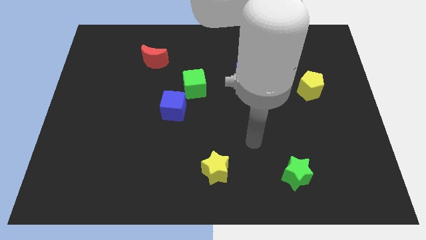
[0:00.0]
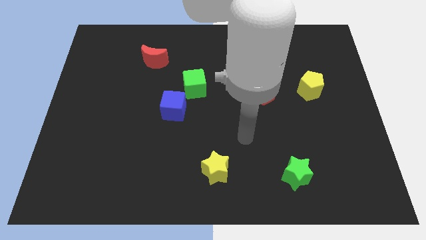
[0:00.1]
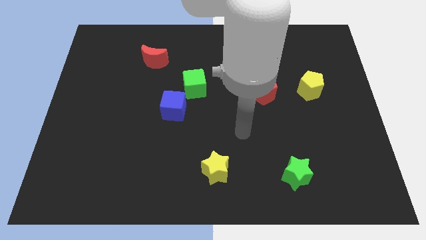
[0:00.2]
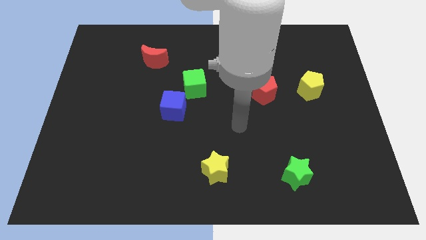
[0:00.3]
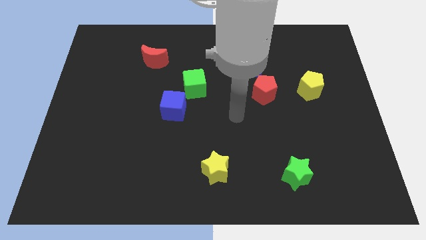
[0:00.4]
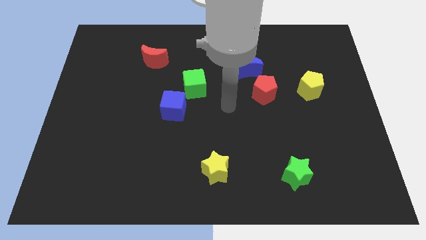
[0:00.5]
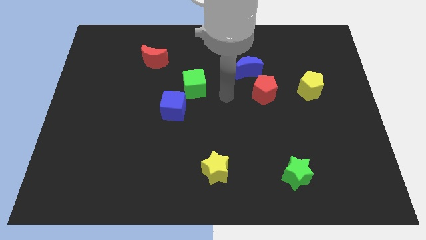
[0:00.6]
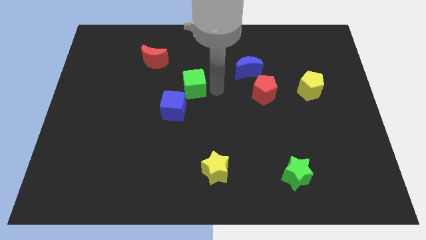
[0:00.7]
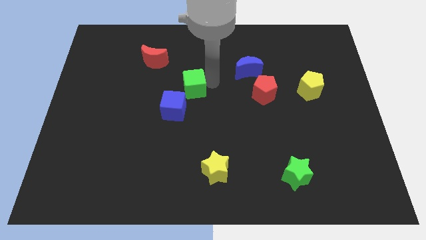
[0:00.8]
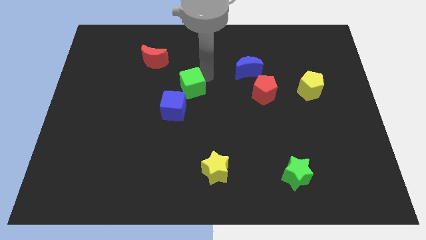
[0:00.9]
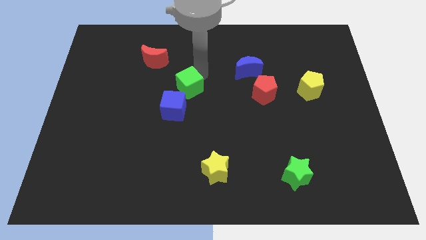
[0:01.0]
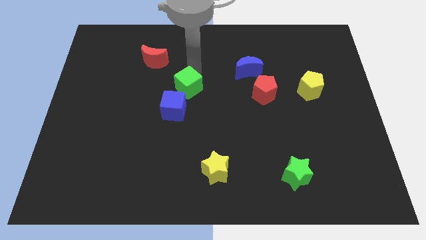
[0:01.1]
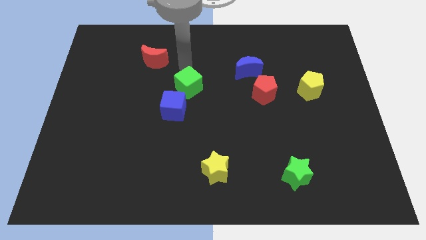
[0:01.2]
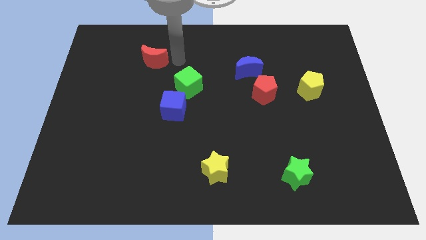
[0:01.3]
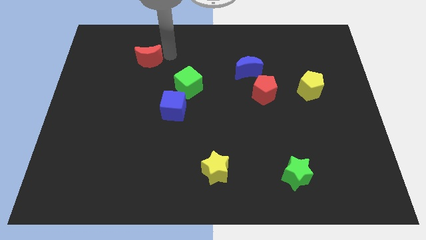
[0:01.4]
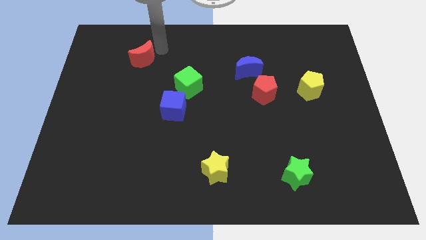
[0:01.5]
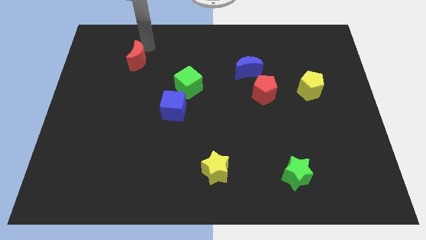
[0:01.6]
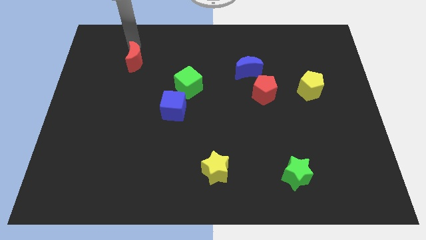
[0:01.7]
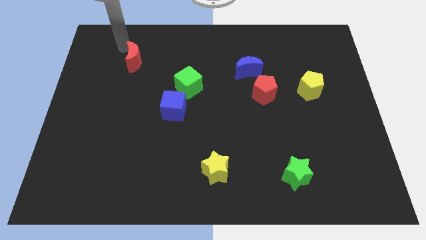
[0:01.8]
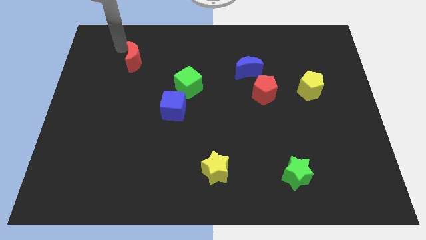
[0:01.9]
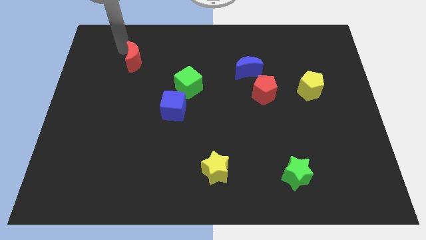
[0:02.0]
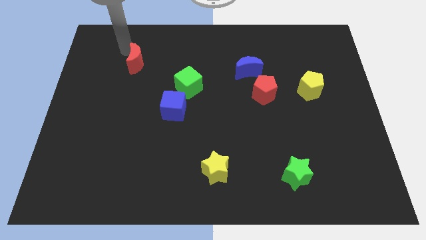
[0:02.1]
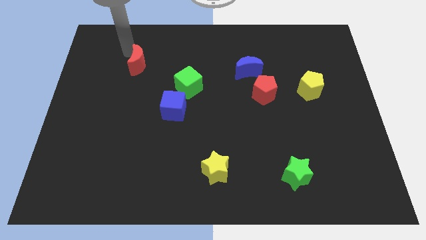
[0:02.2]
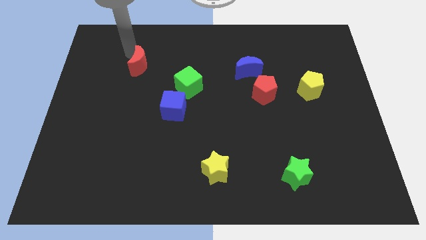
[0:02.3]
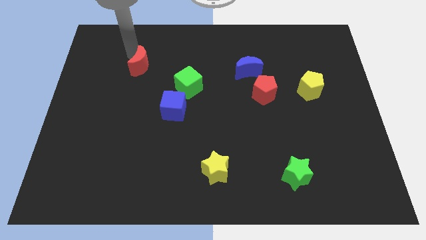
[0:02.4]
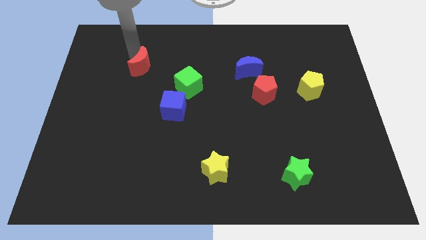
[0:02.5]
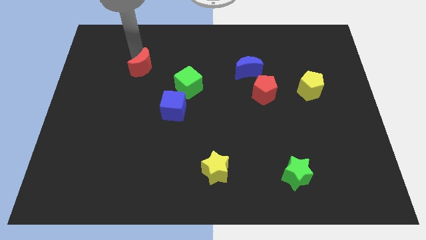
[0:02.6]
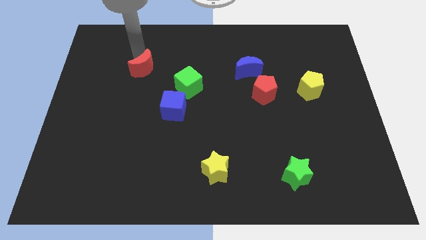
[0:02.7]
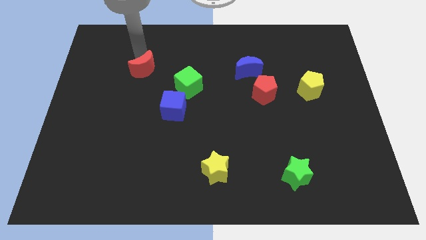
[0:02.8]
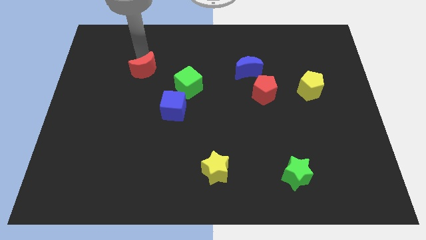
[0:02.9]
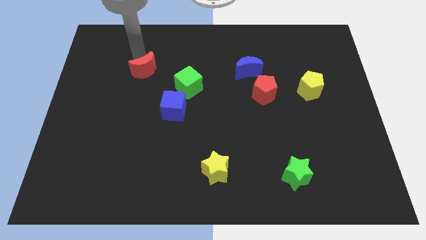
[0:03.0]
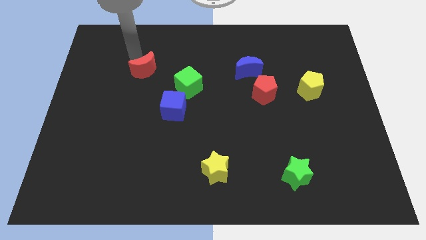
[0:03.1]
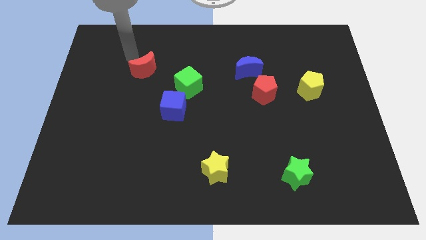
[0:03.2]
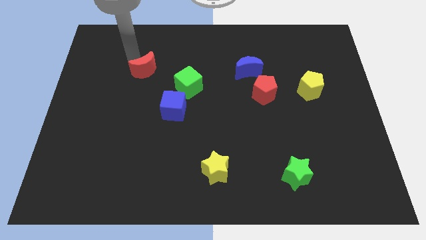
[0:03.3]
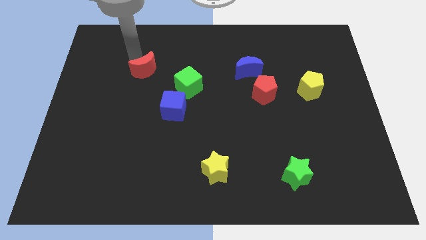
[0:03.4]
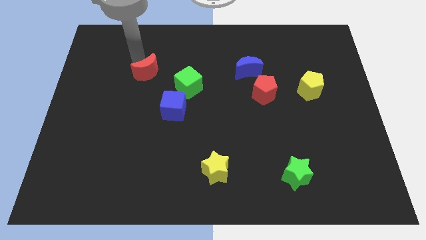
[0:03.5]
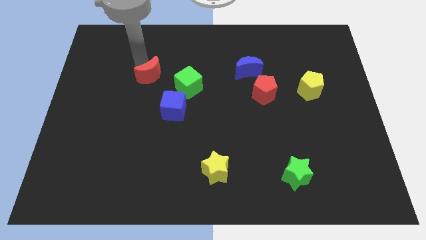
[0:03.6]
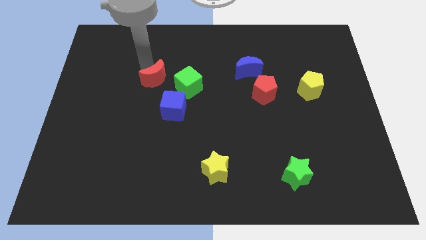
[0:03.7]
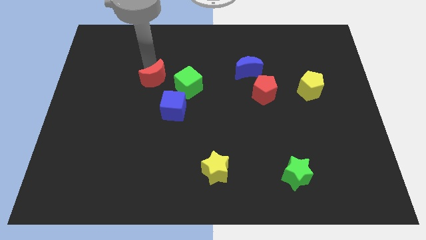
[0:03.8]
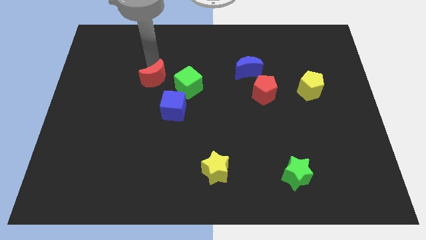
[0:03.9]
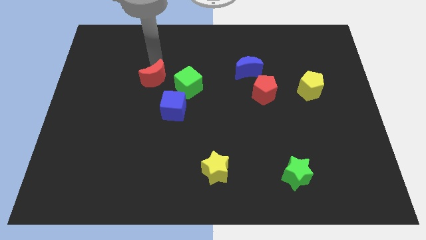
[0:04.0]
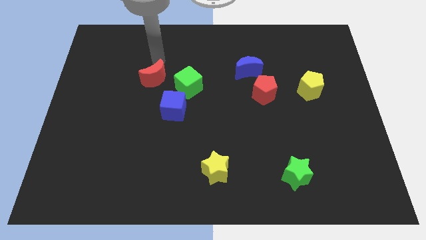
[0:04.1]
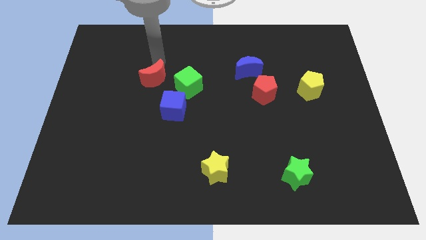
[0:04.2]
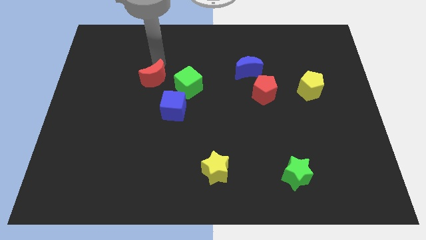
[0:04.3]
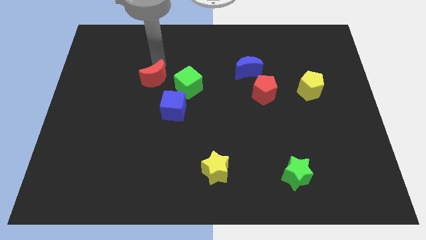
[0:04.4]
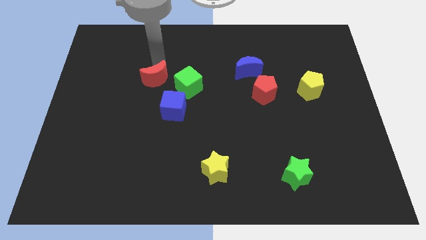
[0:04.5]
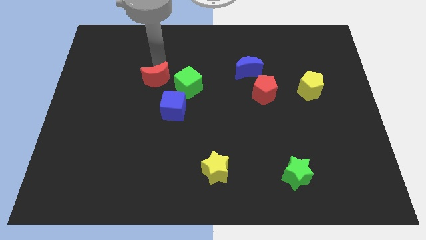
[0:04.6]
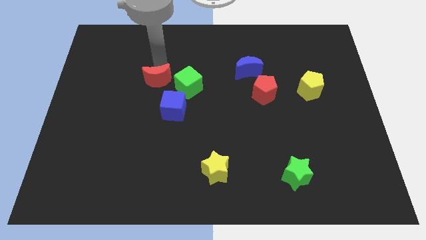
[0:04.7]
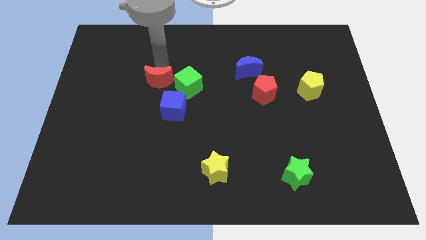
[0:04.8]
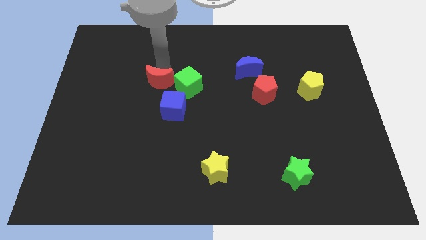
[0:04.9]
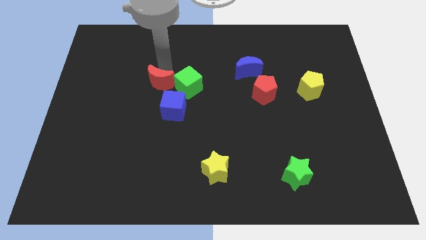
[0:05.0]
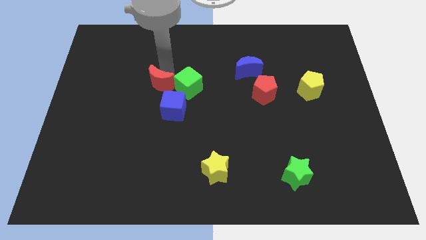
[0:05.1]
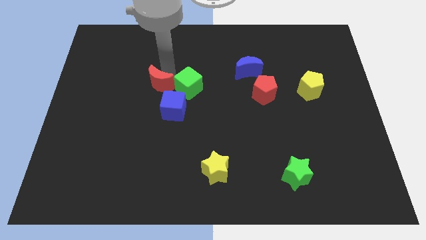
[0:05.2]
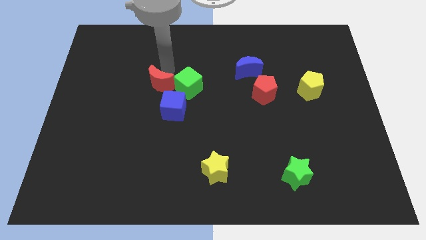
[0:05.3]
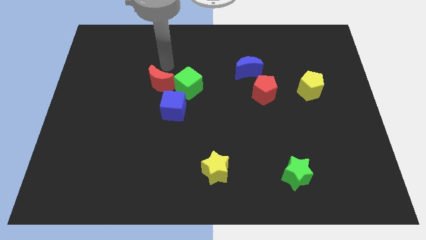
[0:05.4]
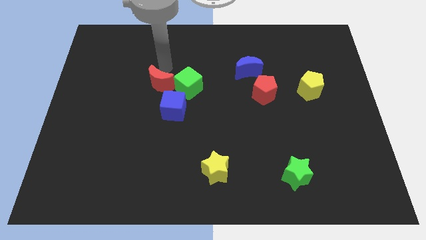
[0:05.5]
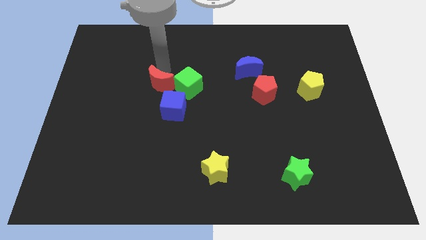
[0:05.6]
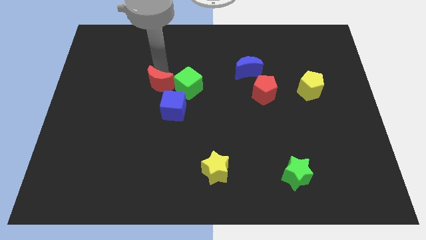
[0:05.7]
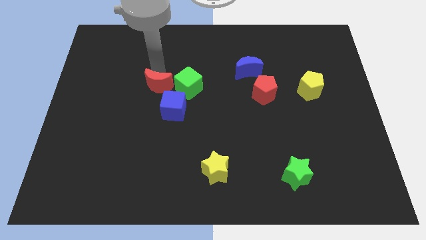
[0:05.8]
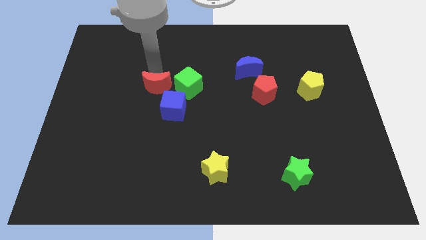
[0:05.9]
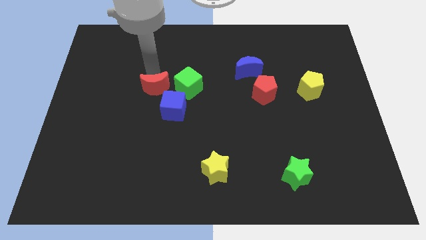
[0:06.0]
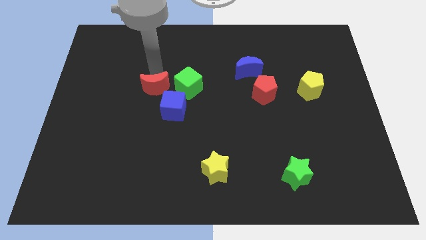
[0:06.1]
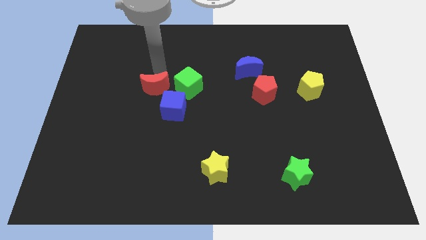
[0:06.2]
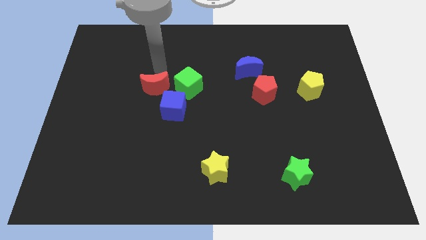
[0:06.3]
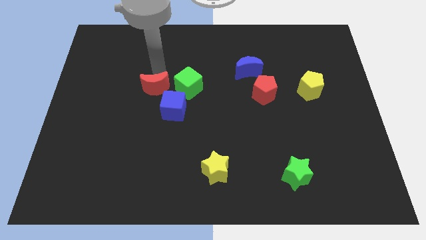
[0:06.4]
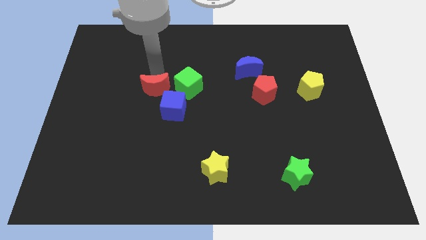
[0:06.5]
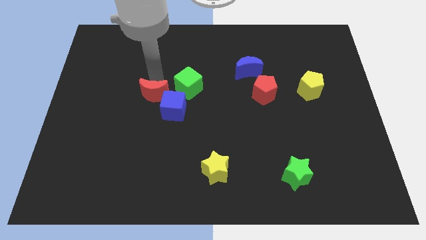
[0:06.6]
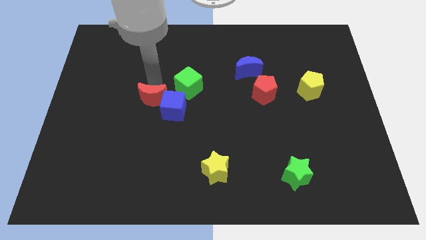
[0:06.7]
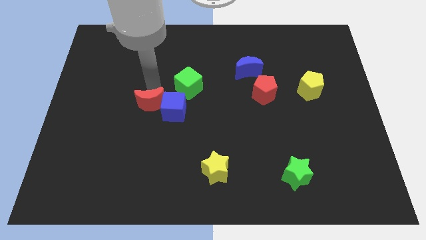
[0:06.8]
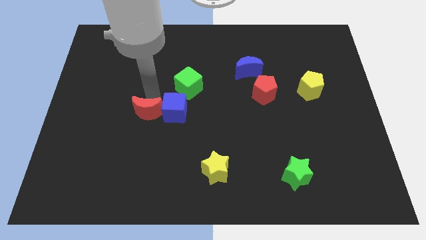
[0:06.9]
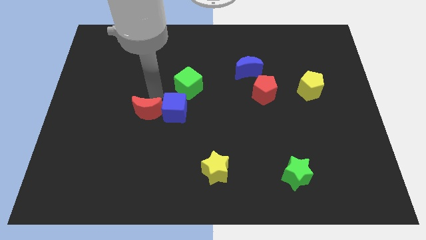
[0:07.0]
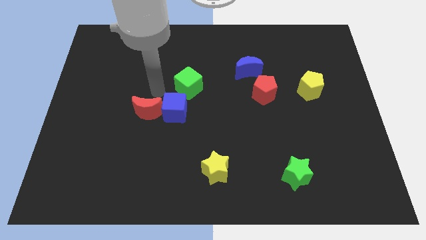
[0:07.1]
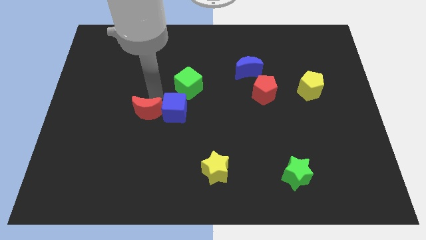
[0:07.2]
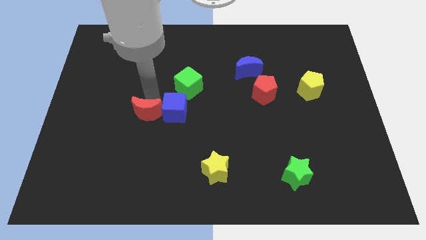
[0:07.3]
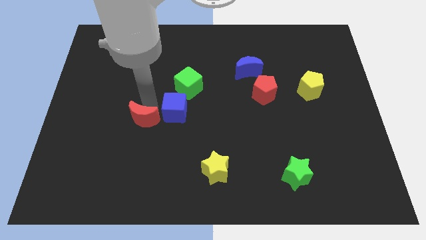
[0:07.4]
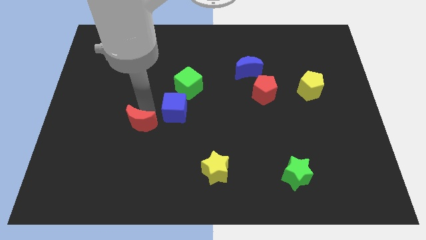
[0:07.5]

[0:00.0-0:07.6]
move the red moon down

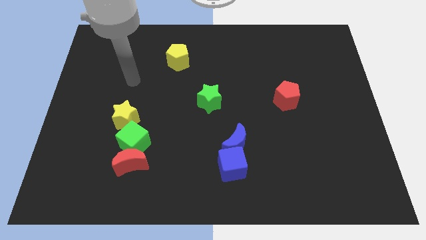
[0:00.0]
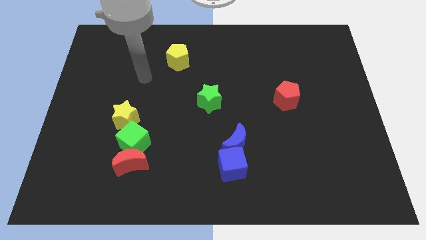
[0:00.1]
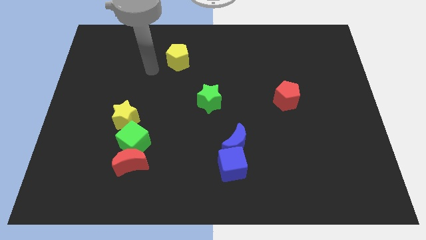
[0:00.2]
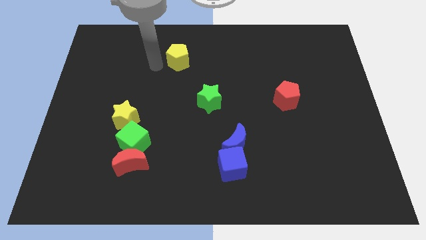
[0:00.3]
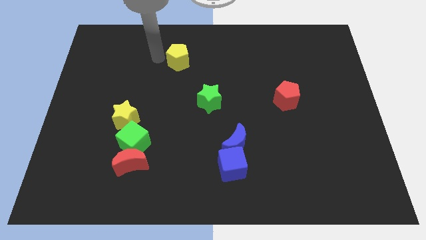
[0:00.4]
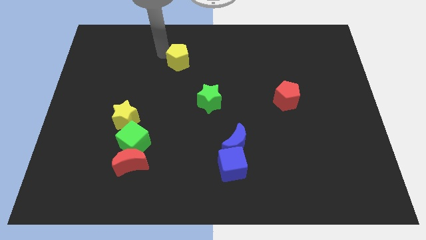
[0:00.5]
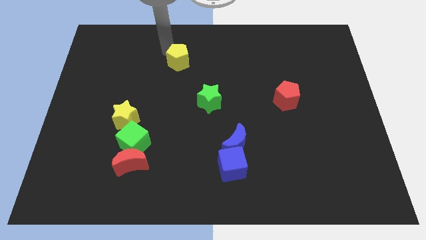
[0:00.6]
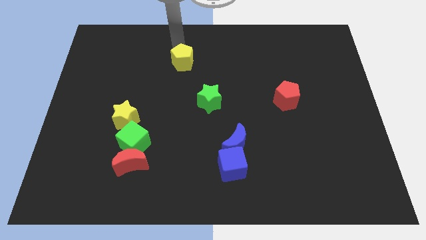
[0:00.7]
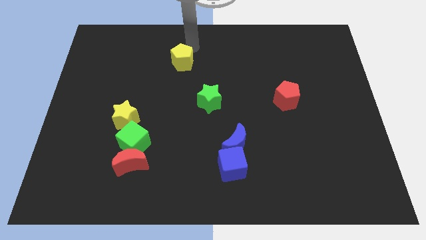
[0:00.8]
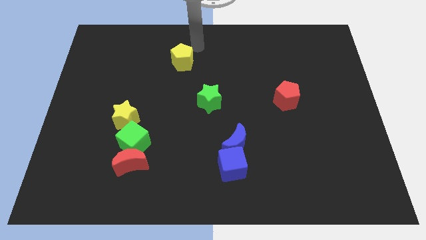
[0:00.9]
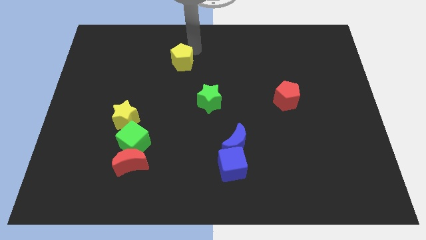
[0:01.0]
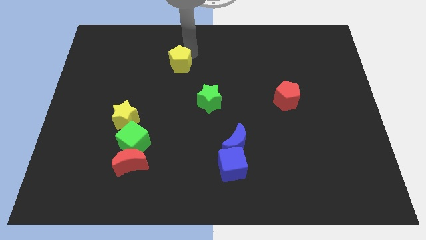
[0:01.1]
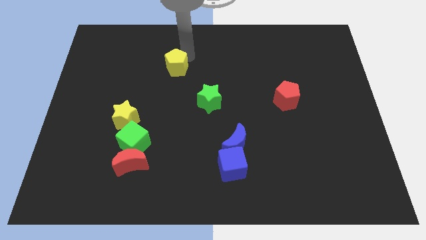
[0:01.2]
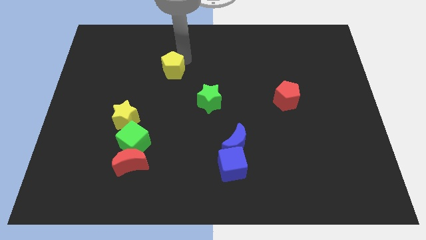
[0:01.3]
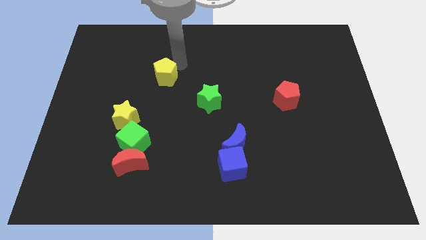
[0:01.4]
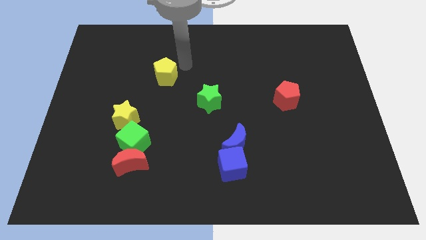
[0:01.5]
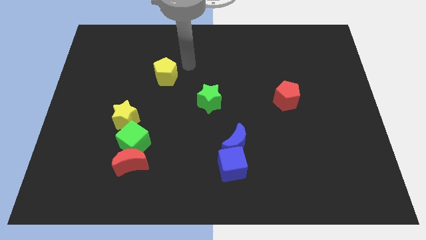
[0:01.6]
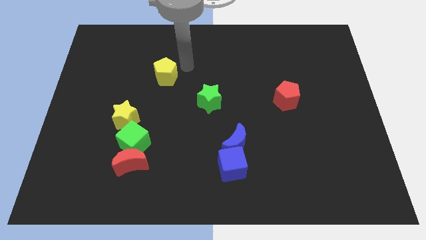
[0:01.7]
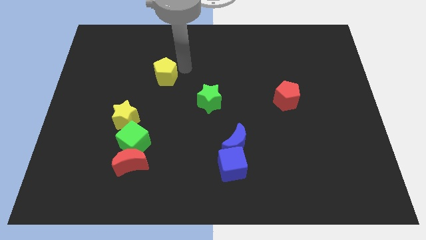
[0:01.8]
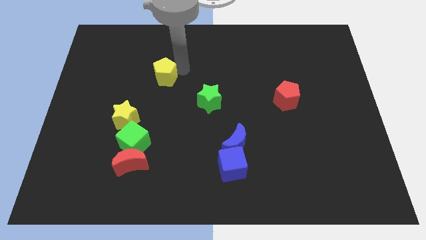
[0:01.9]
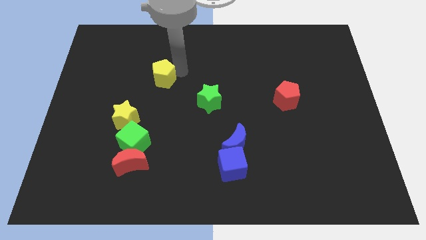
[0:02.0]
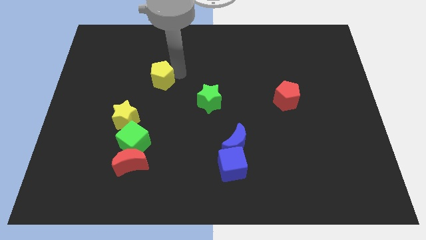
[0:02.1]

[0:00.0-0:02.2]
slide the yellow pentagon slightly down and left
